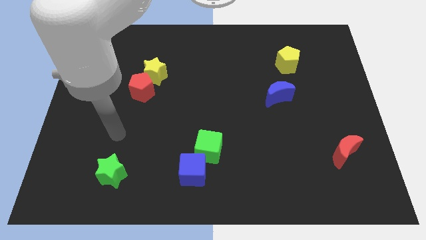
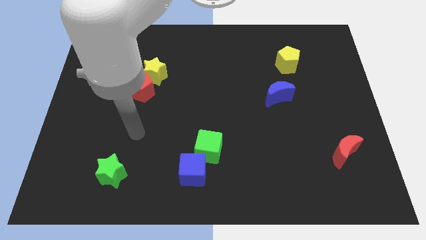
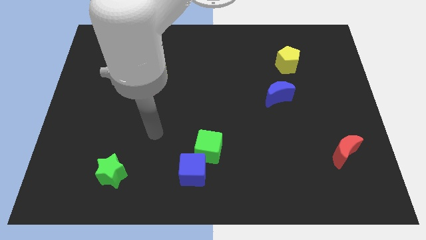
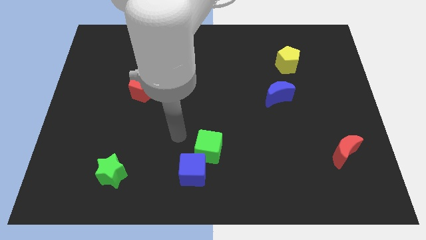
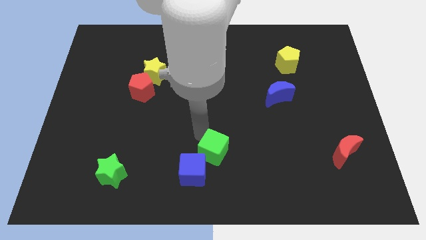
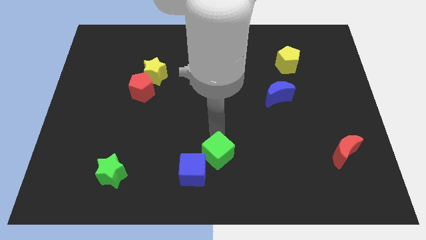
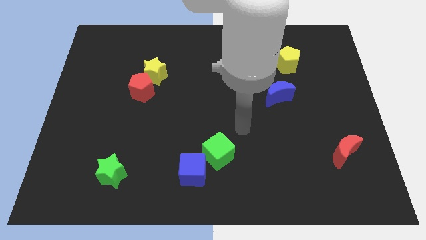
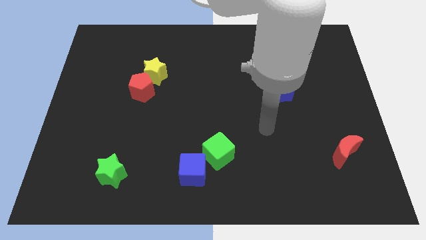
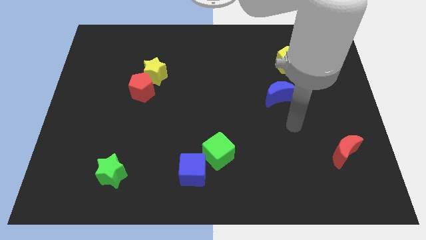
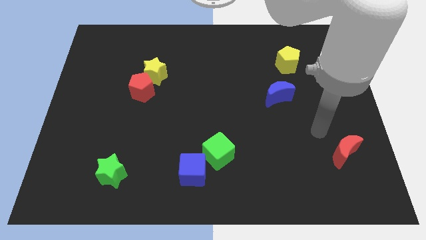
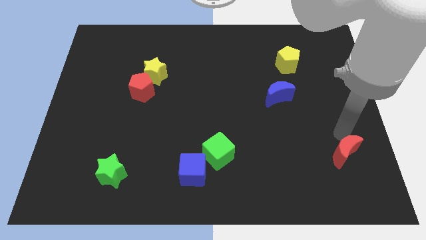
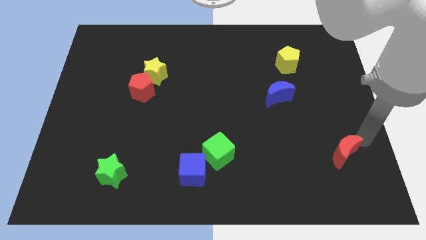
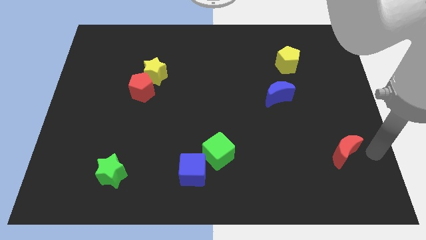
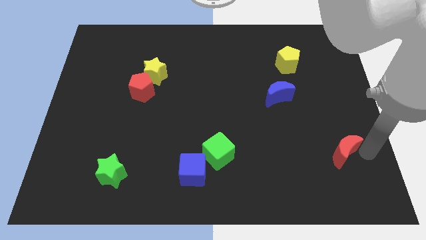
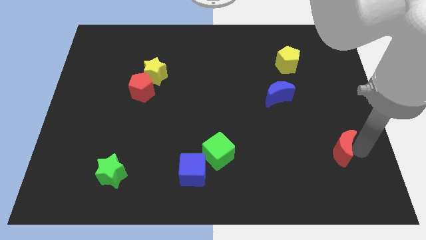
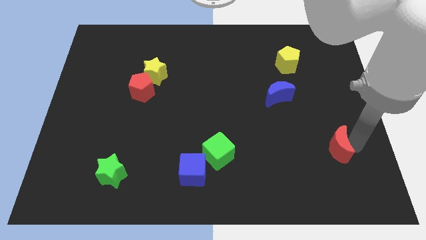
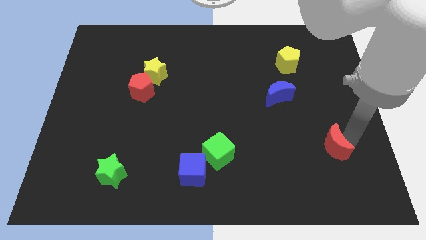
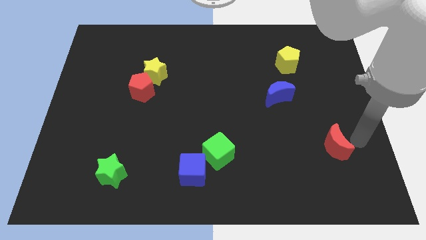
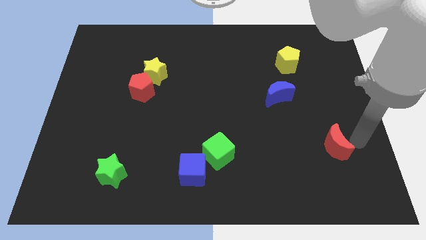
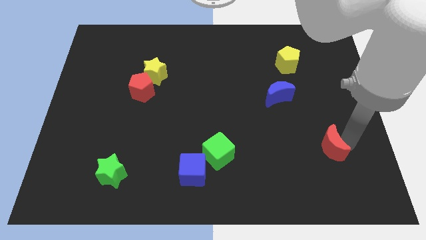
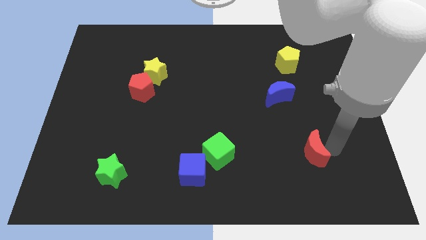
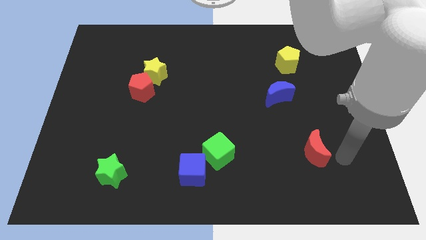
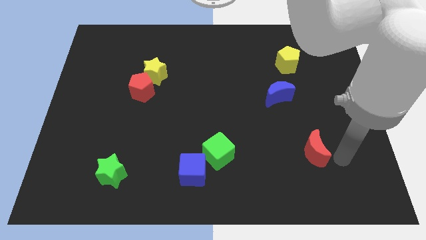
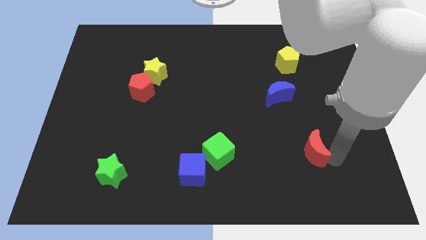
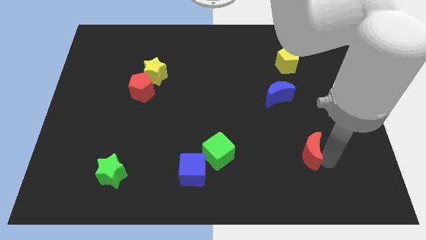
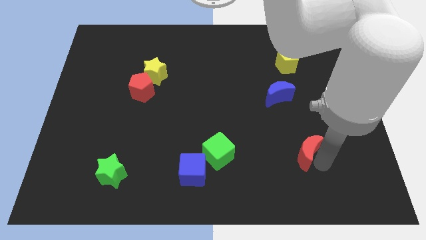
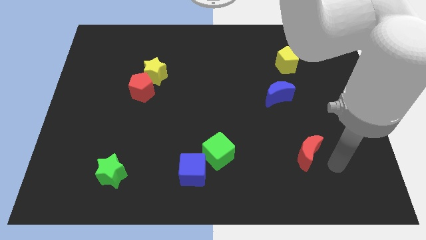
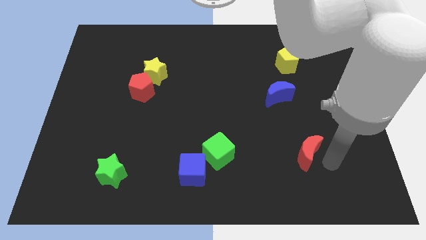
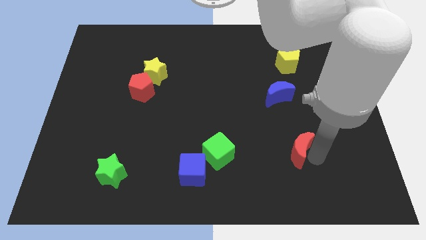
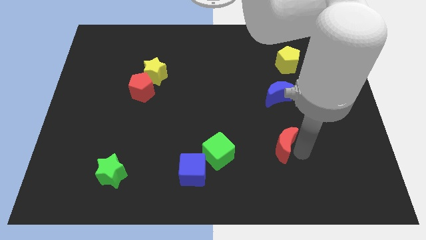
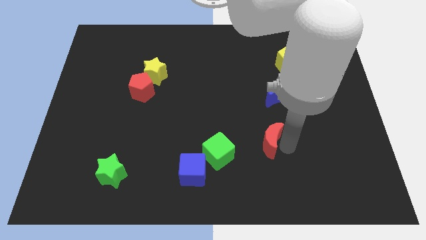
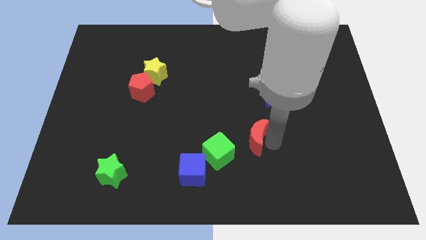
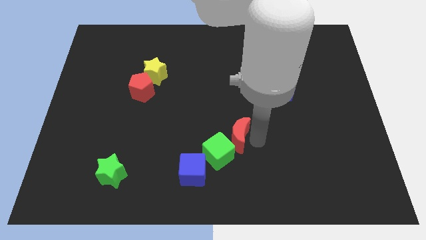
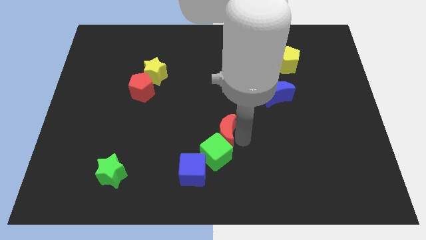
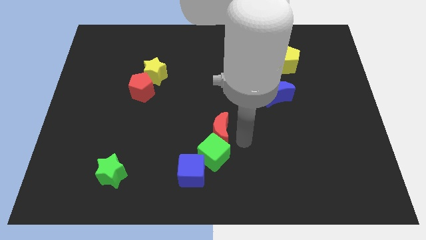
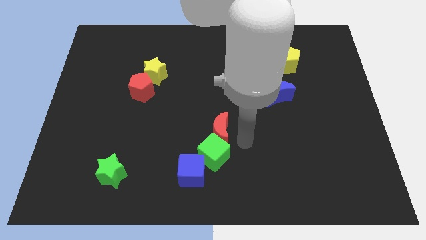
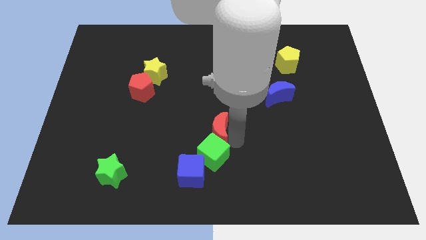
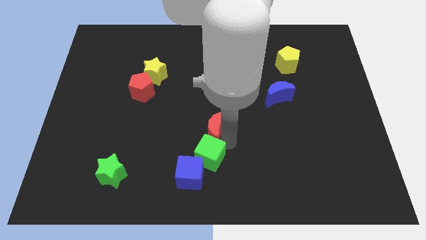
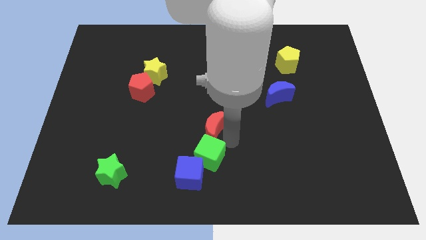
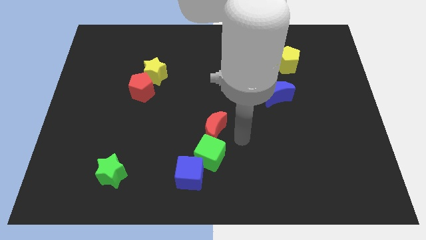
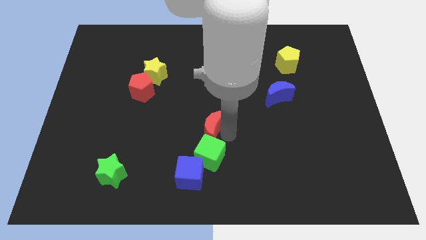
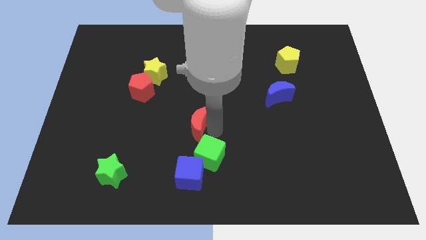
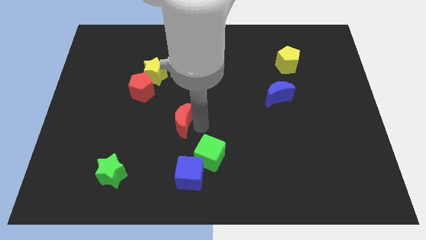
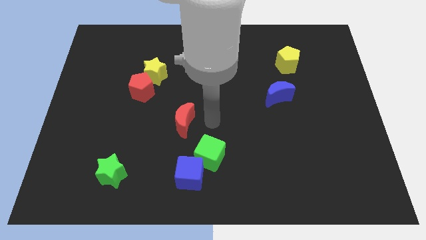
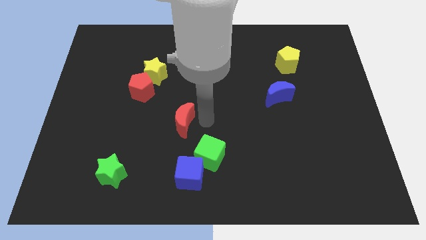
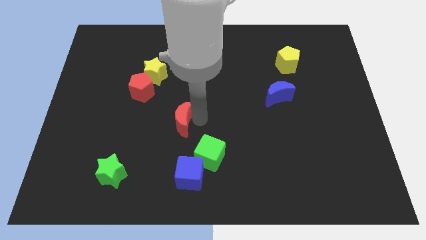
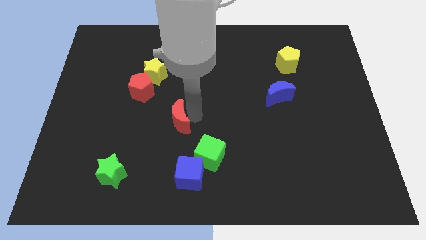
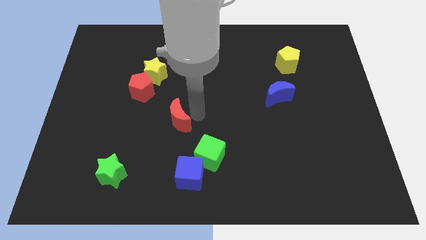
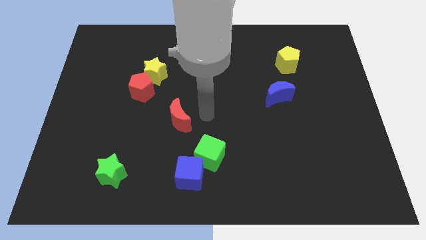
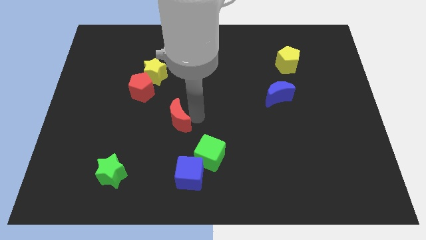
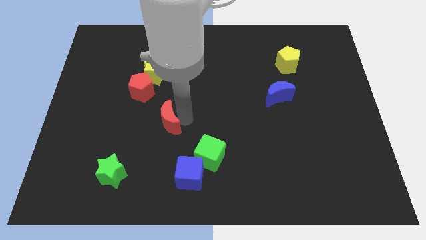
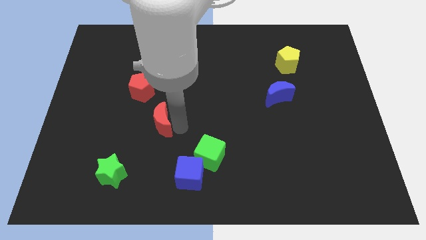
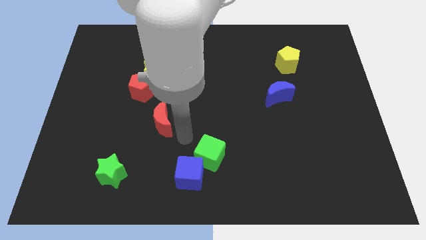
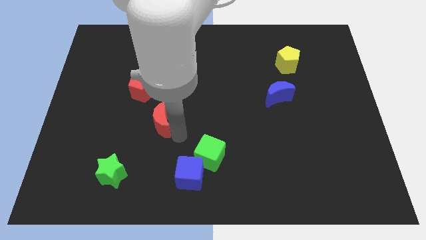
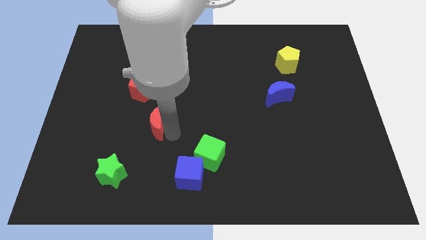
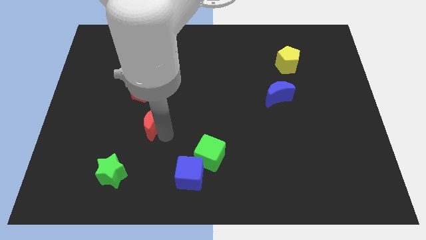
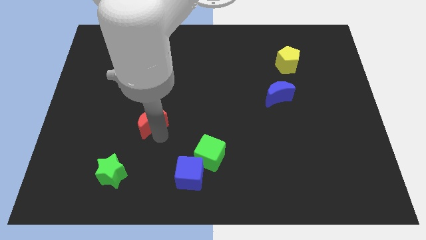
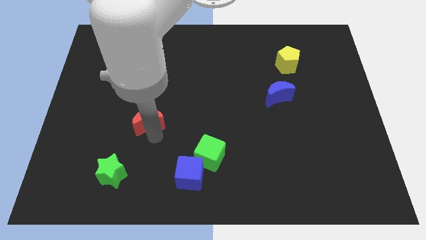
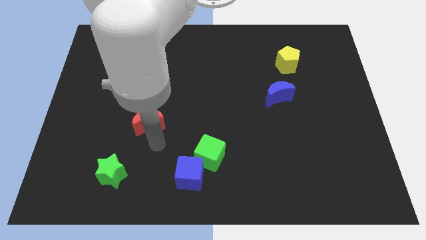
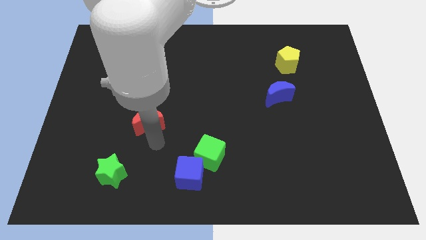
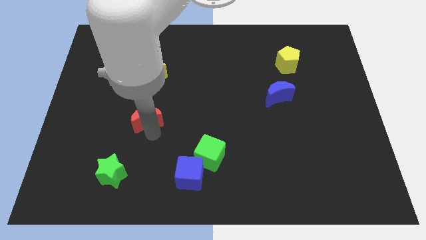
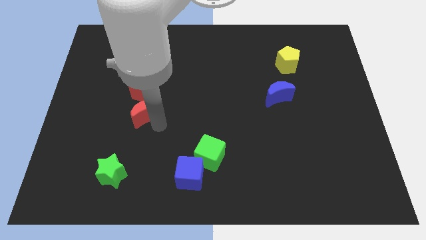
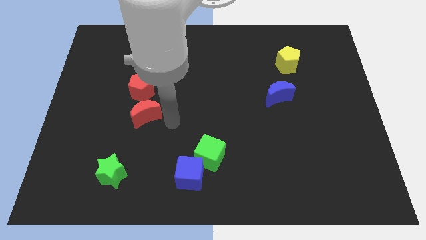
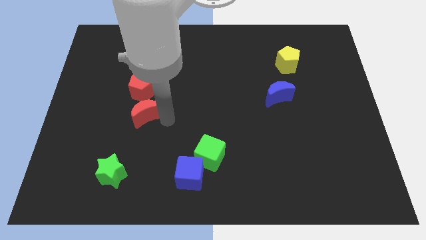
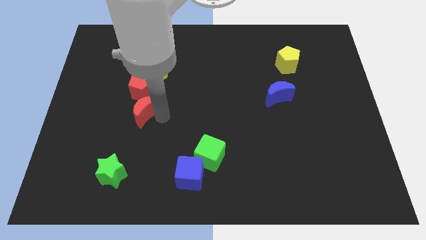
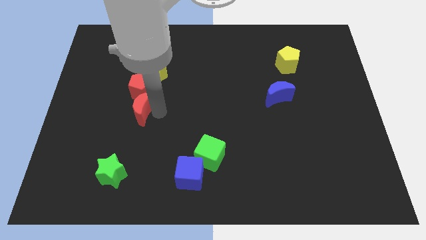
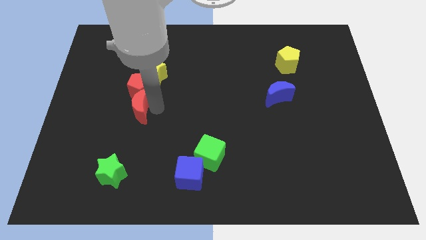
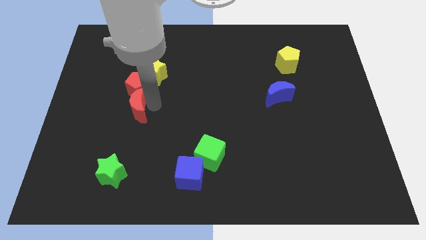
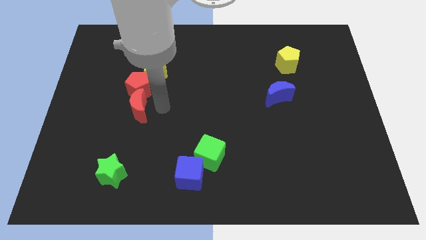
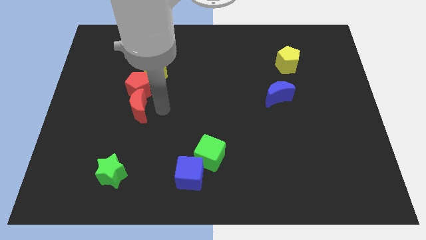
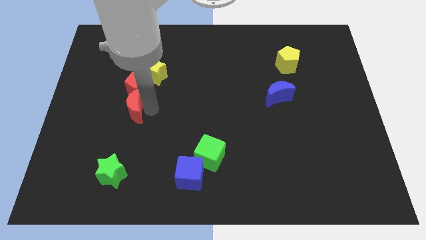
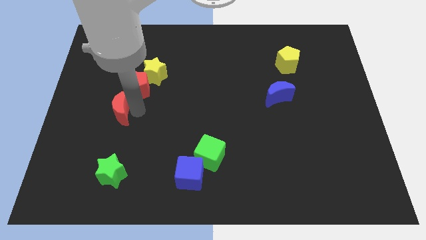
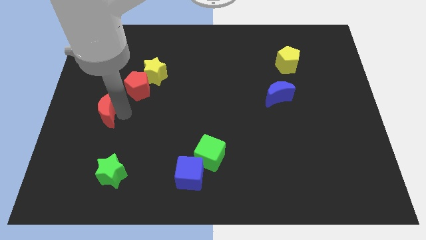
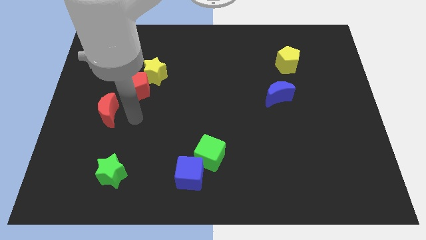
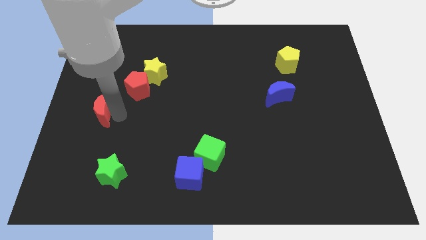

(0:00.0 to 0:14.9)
push the red moon to the left side
